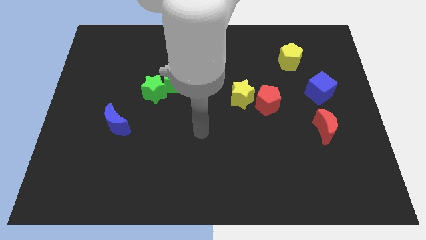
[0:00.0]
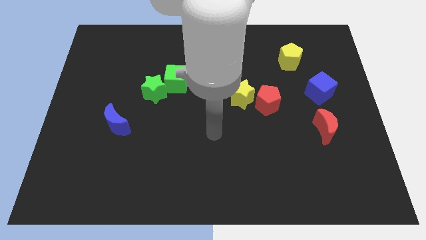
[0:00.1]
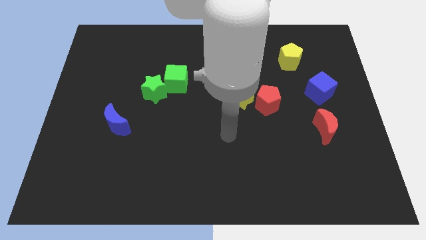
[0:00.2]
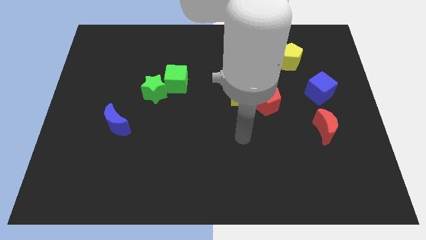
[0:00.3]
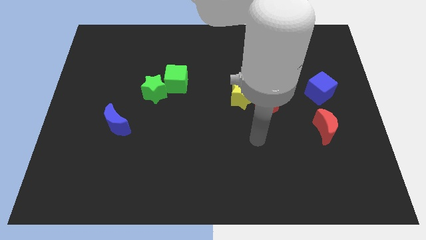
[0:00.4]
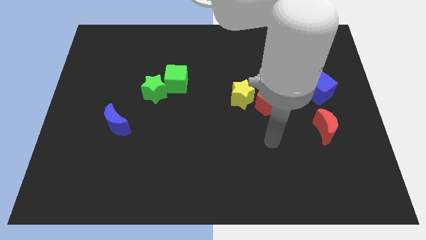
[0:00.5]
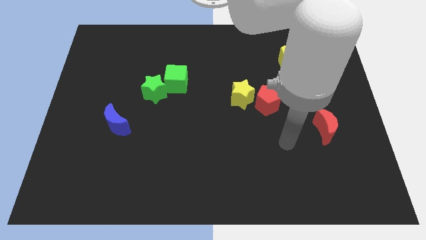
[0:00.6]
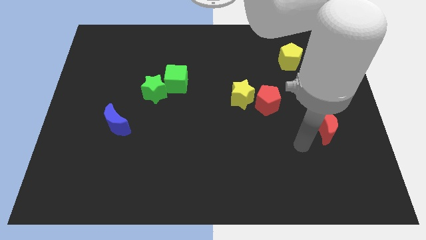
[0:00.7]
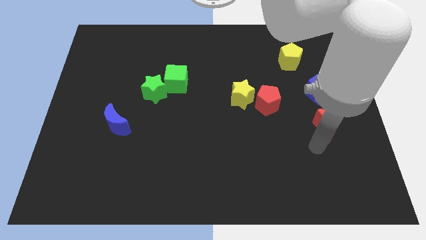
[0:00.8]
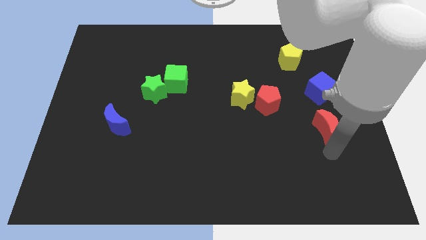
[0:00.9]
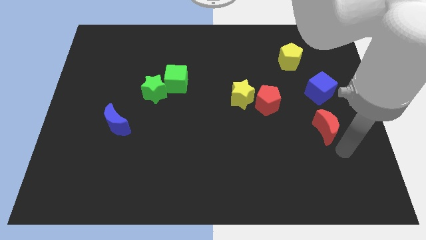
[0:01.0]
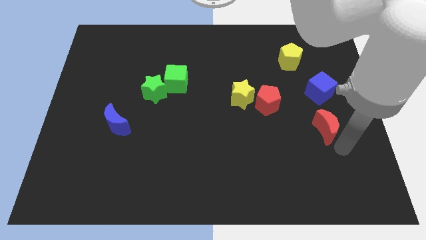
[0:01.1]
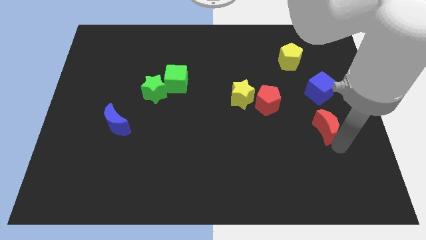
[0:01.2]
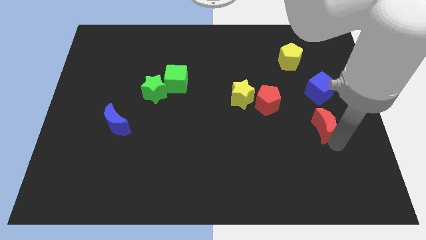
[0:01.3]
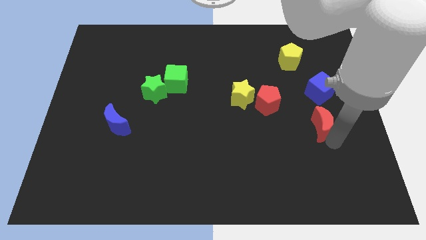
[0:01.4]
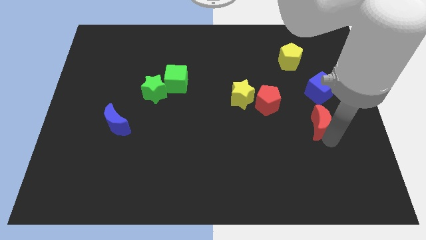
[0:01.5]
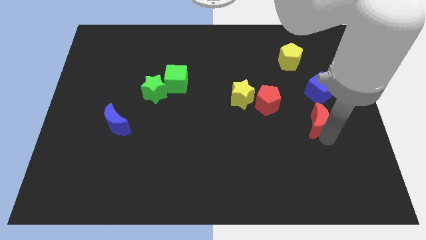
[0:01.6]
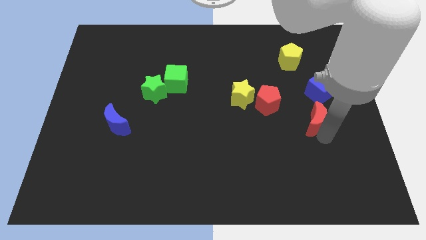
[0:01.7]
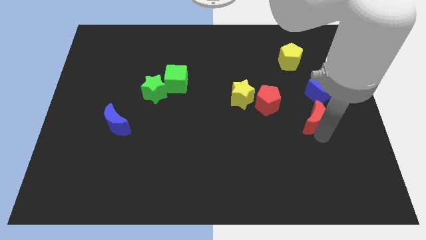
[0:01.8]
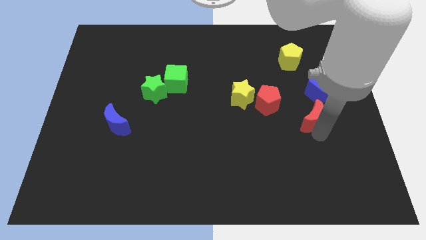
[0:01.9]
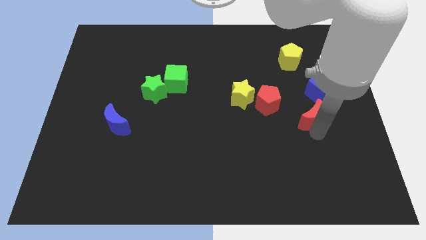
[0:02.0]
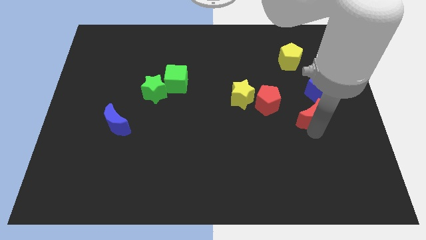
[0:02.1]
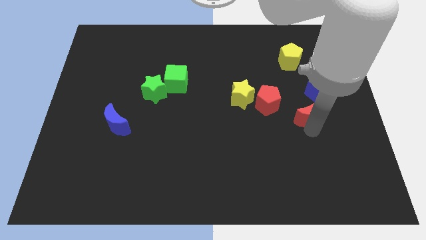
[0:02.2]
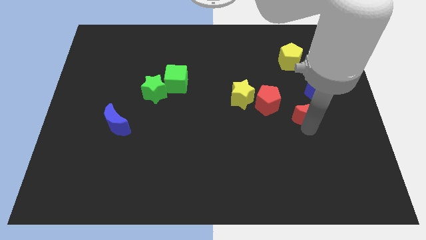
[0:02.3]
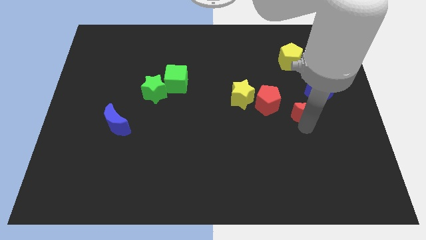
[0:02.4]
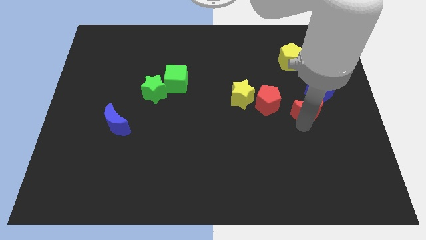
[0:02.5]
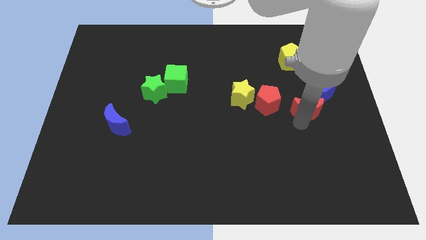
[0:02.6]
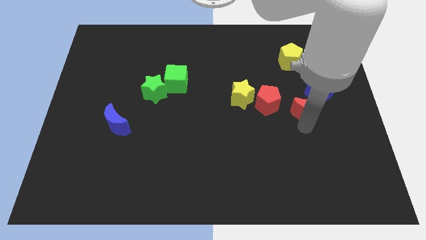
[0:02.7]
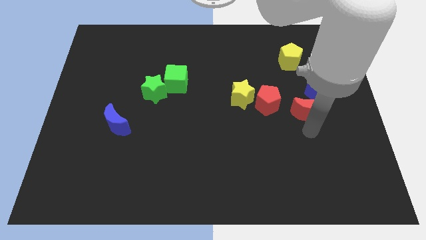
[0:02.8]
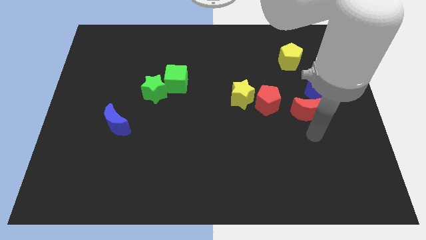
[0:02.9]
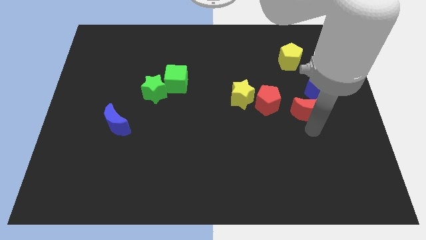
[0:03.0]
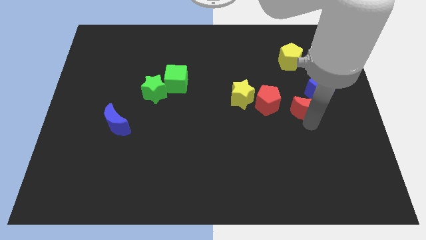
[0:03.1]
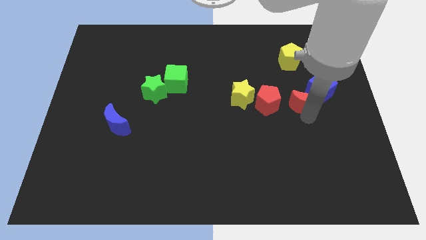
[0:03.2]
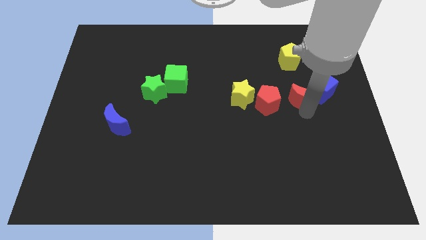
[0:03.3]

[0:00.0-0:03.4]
slightly move the red moon up

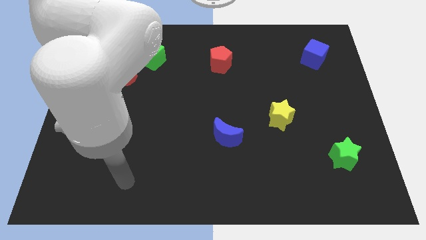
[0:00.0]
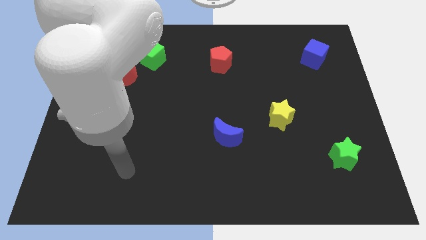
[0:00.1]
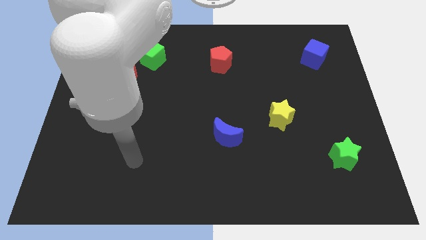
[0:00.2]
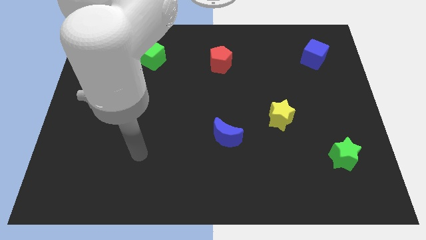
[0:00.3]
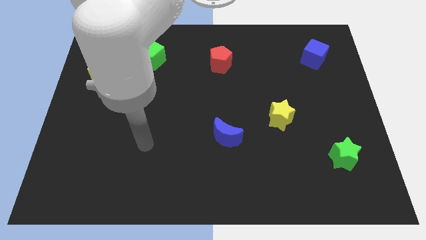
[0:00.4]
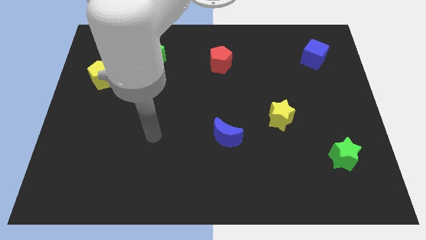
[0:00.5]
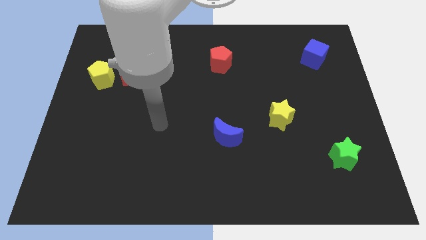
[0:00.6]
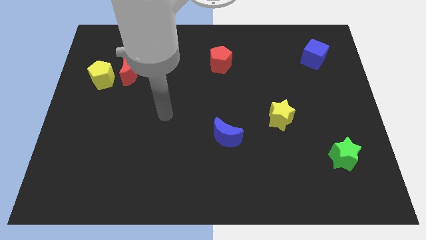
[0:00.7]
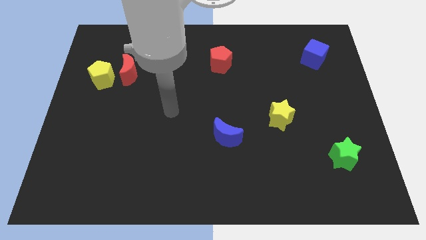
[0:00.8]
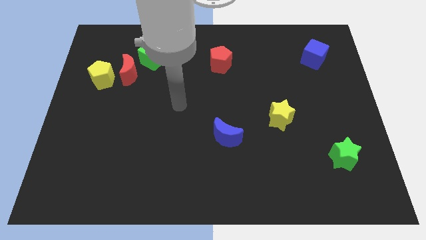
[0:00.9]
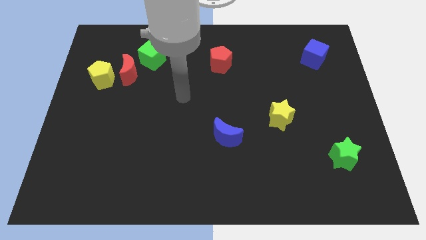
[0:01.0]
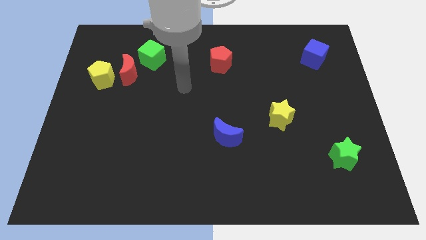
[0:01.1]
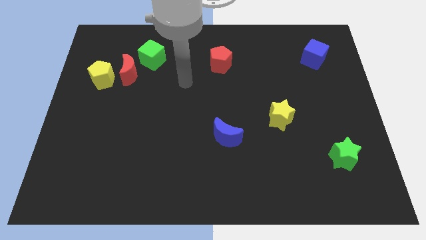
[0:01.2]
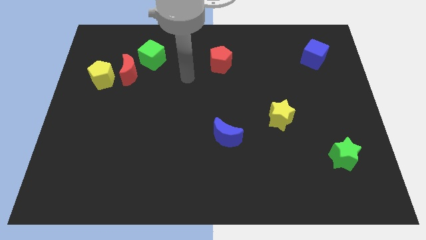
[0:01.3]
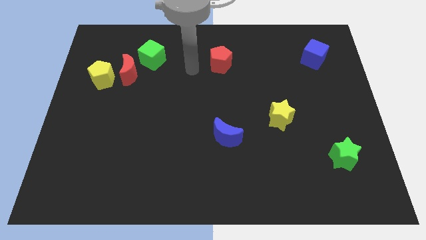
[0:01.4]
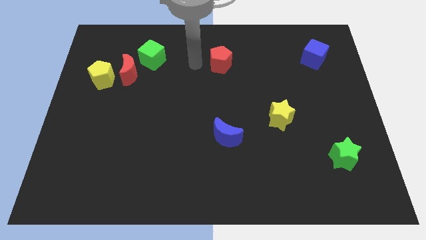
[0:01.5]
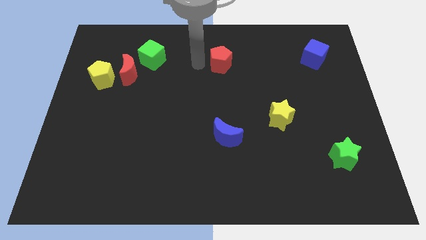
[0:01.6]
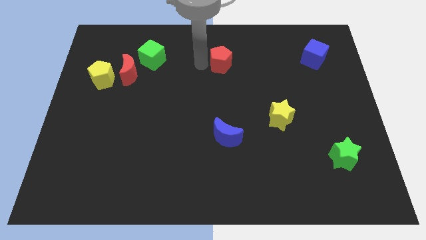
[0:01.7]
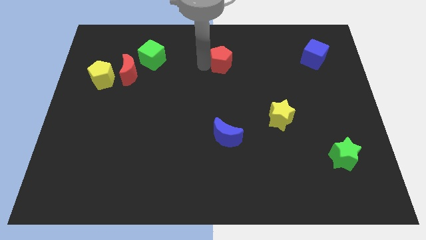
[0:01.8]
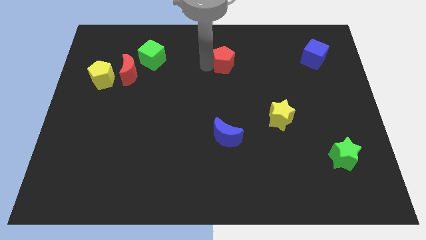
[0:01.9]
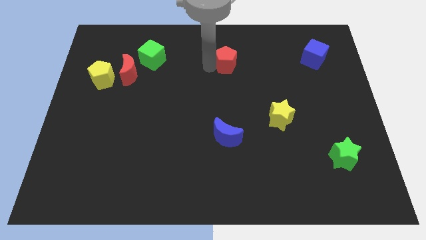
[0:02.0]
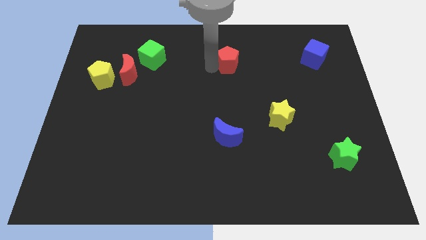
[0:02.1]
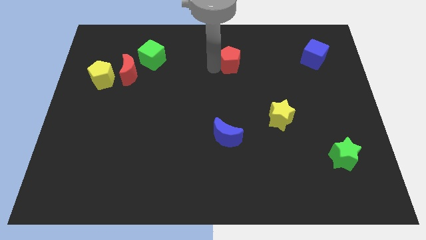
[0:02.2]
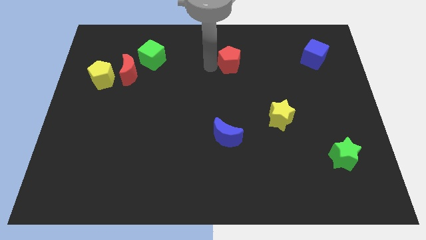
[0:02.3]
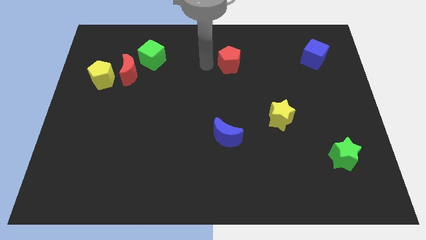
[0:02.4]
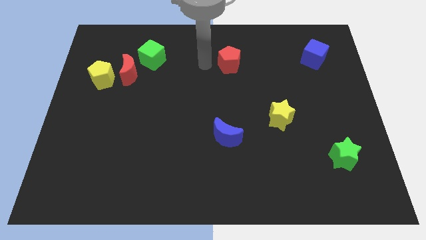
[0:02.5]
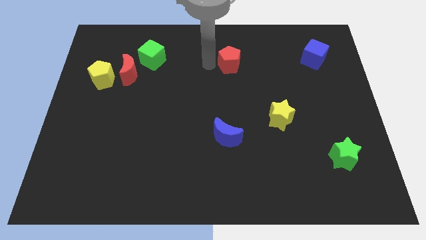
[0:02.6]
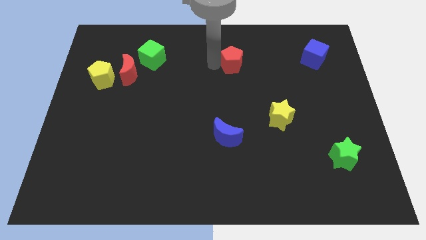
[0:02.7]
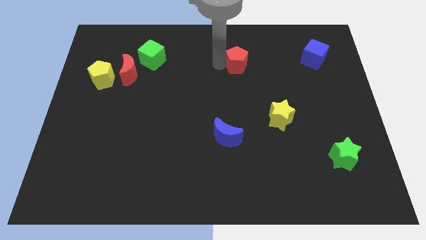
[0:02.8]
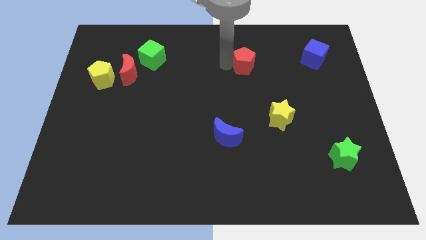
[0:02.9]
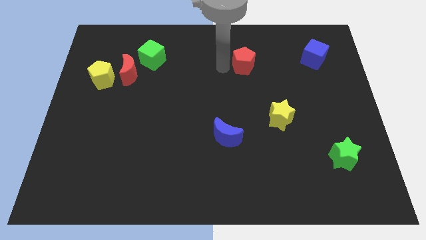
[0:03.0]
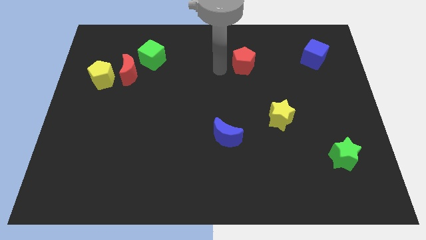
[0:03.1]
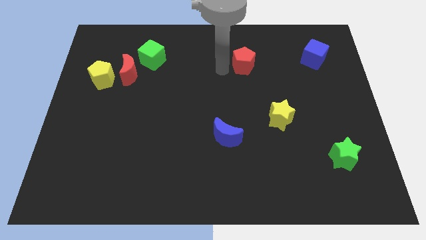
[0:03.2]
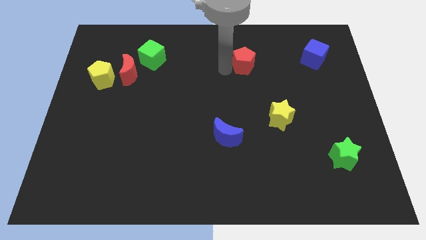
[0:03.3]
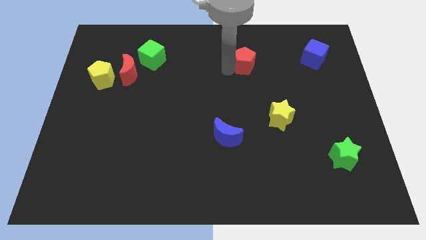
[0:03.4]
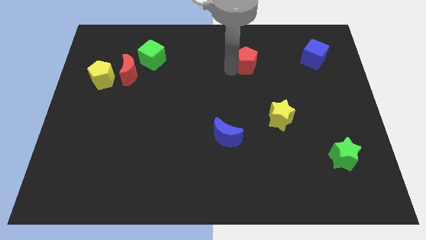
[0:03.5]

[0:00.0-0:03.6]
move the red pentagon a little to the right

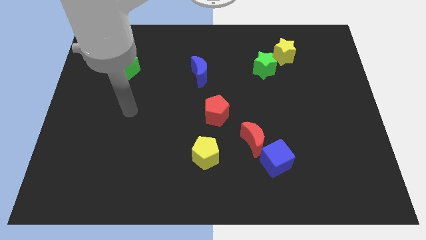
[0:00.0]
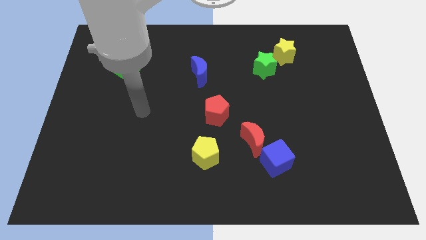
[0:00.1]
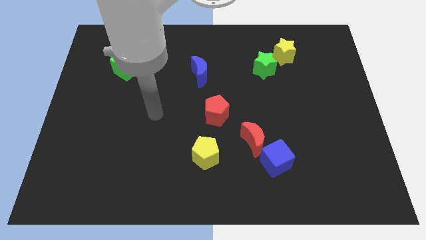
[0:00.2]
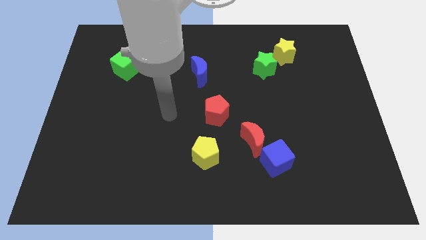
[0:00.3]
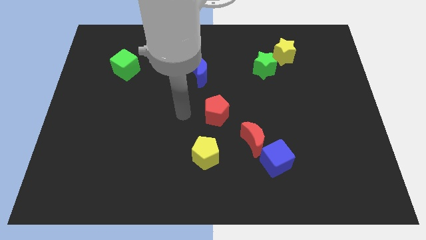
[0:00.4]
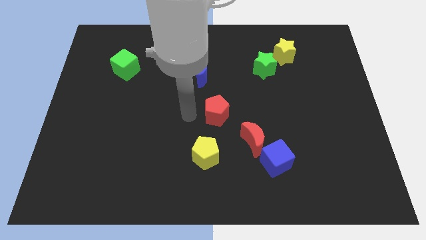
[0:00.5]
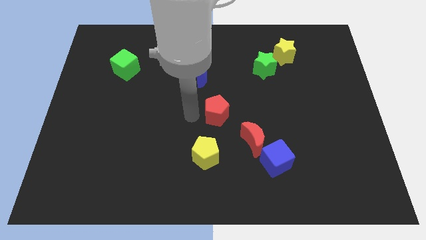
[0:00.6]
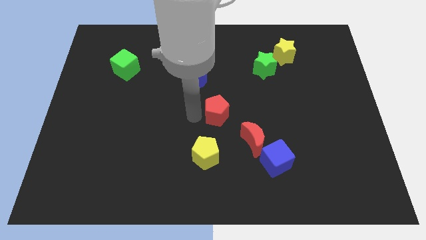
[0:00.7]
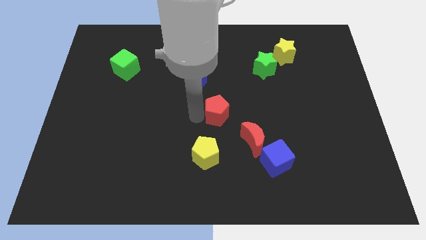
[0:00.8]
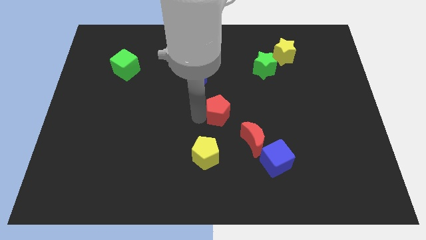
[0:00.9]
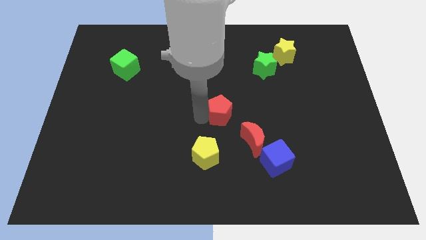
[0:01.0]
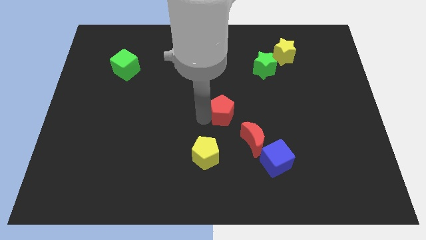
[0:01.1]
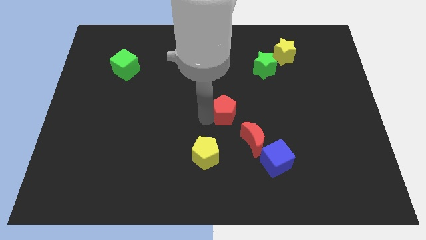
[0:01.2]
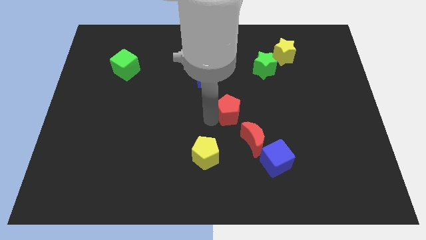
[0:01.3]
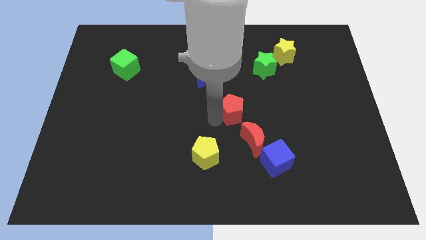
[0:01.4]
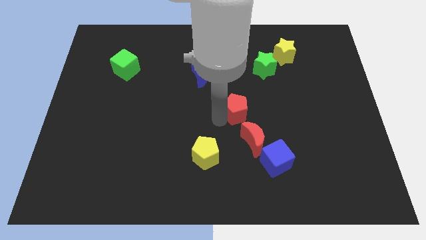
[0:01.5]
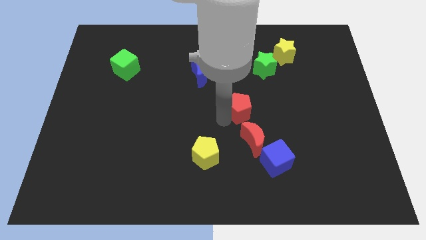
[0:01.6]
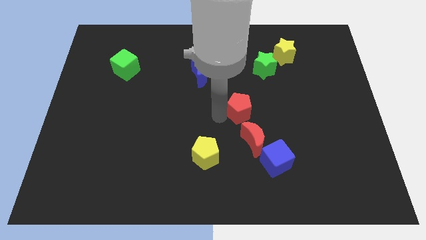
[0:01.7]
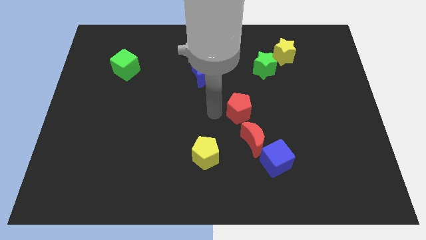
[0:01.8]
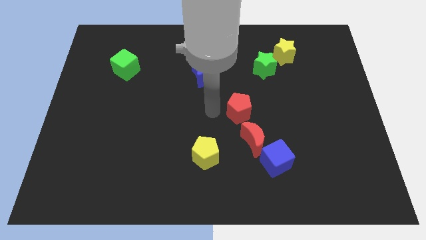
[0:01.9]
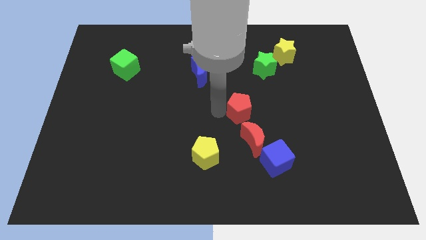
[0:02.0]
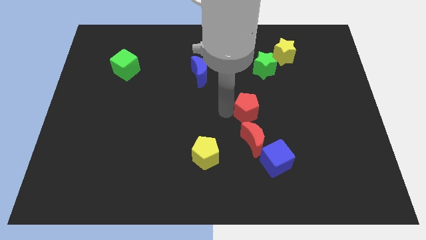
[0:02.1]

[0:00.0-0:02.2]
slide the red pentagon to the right slightly
